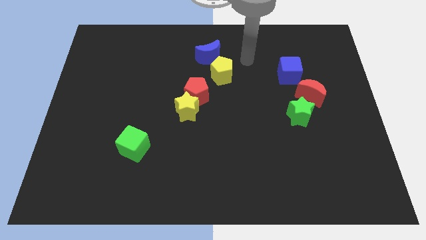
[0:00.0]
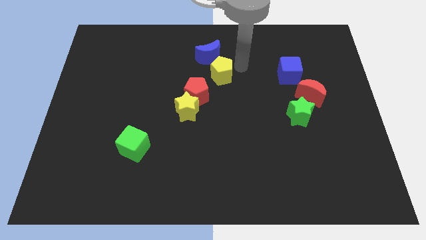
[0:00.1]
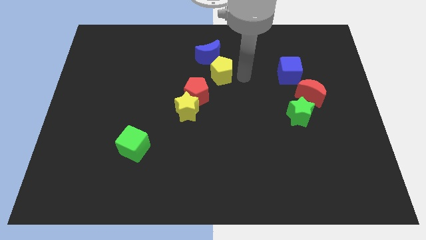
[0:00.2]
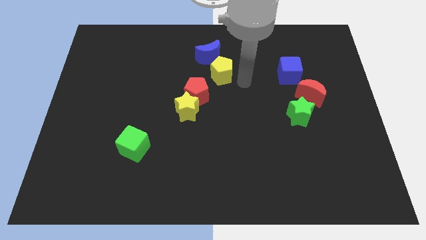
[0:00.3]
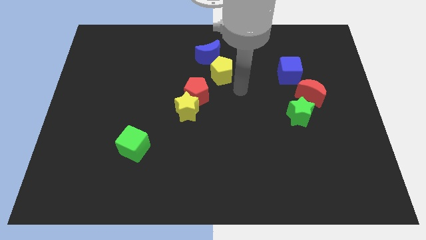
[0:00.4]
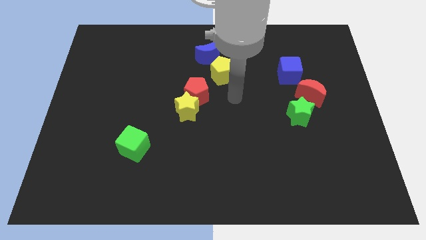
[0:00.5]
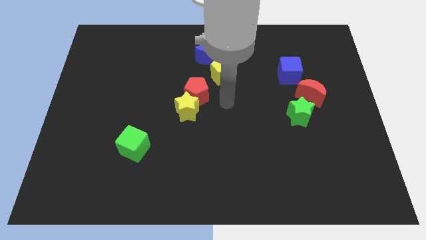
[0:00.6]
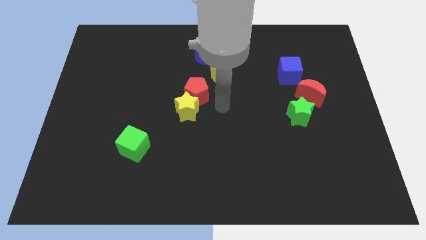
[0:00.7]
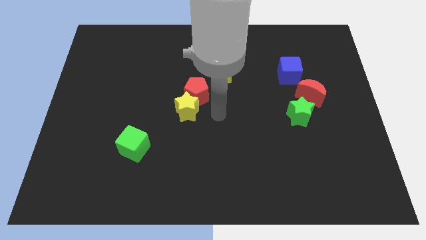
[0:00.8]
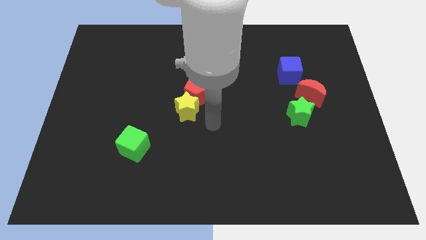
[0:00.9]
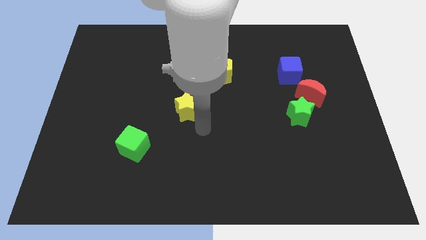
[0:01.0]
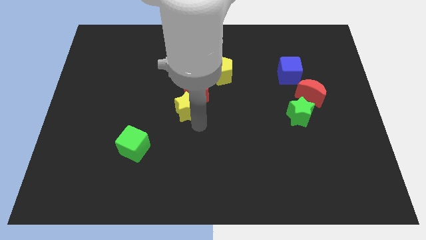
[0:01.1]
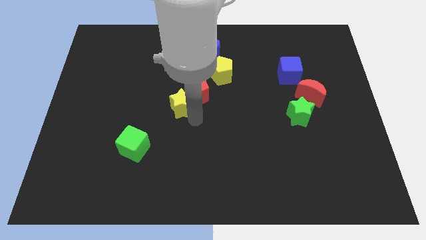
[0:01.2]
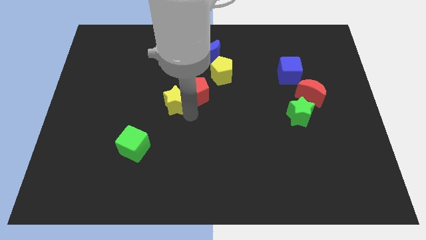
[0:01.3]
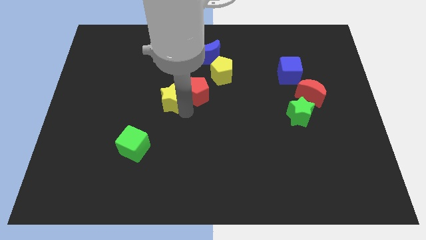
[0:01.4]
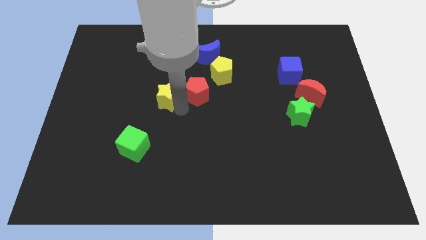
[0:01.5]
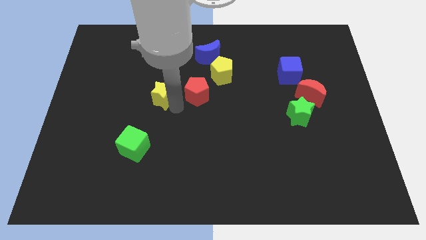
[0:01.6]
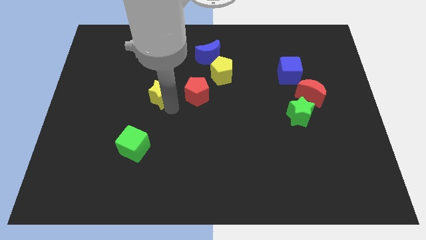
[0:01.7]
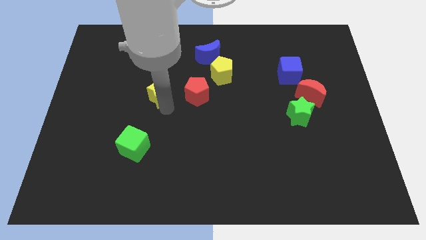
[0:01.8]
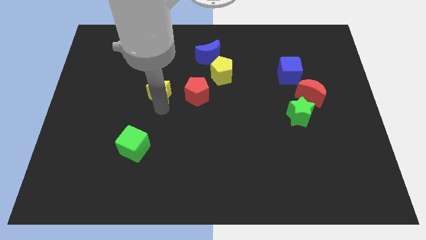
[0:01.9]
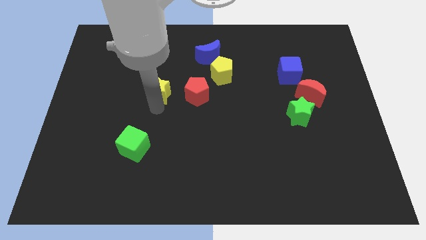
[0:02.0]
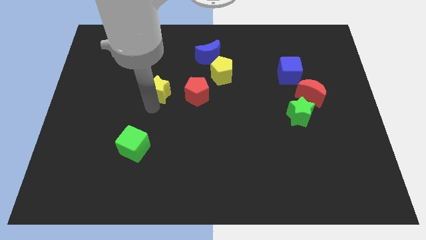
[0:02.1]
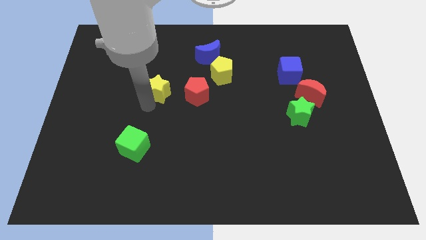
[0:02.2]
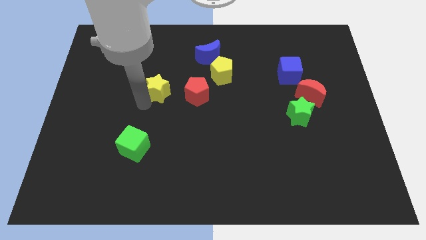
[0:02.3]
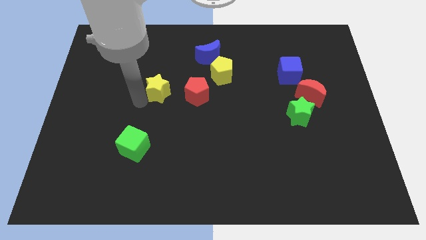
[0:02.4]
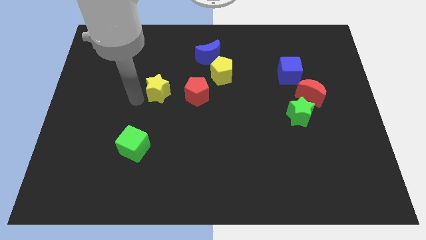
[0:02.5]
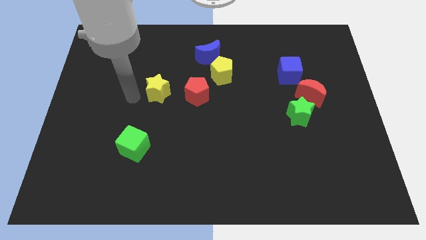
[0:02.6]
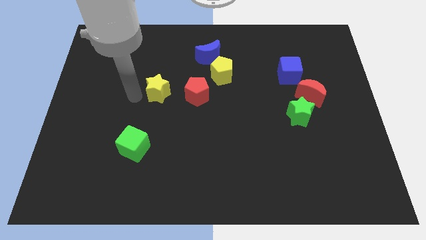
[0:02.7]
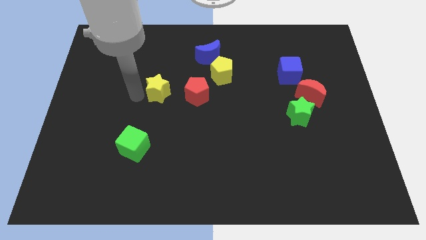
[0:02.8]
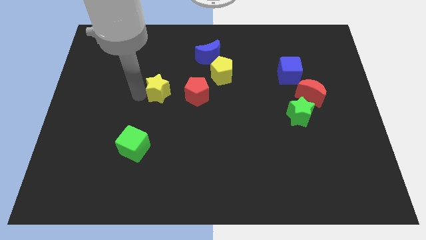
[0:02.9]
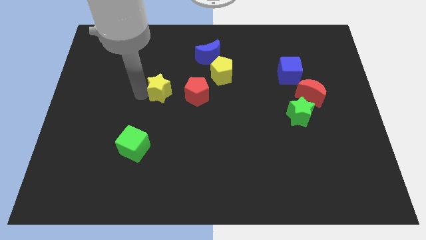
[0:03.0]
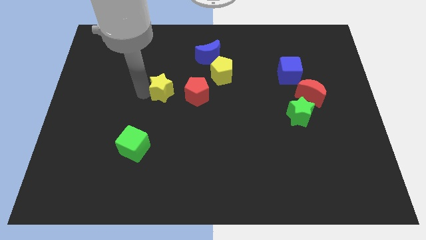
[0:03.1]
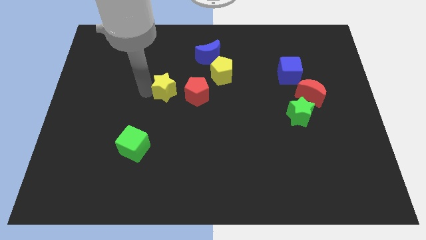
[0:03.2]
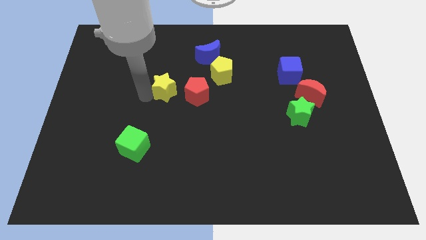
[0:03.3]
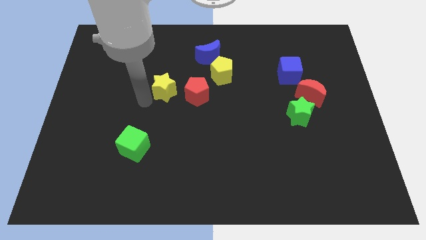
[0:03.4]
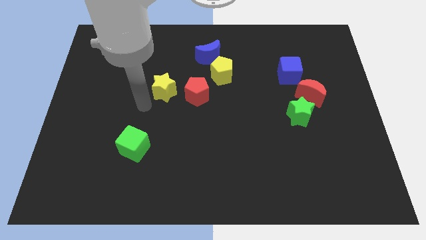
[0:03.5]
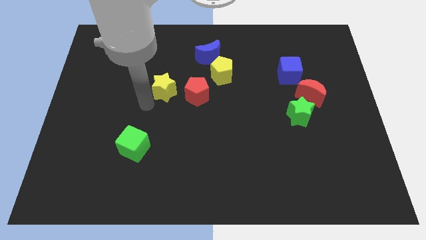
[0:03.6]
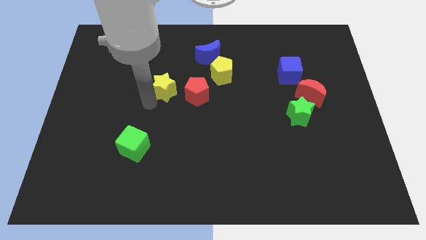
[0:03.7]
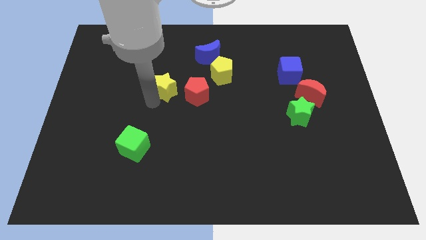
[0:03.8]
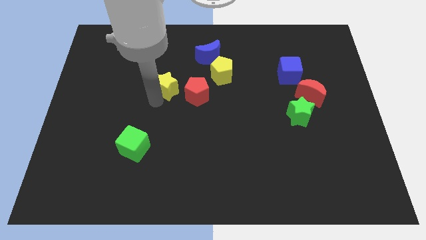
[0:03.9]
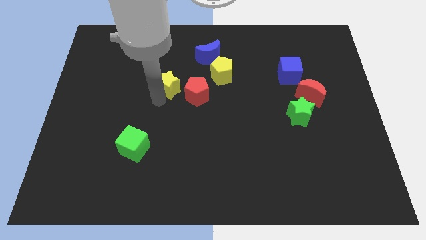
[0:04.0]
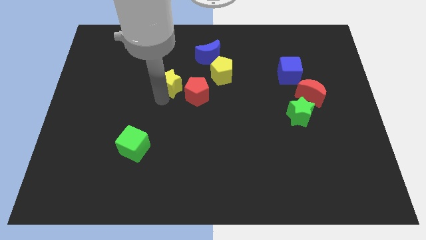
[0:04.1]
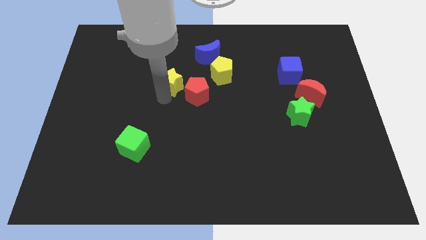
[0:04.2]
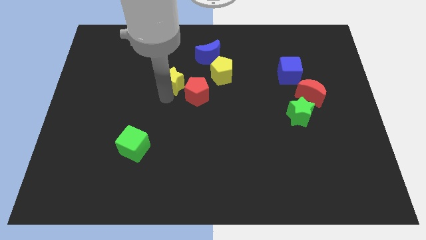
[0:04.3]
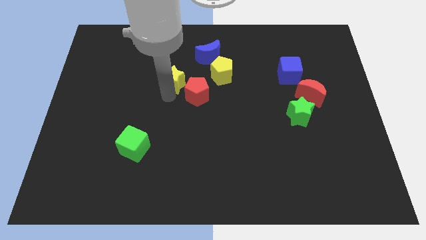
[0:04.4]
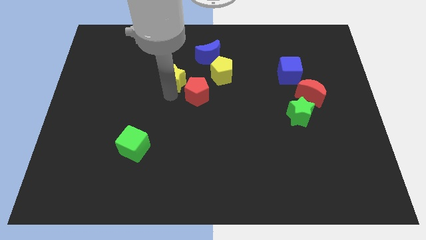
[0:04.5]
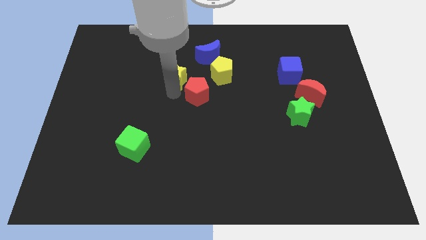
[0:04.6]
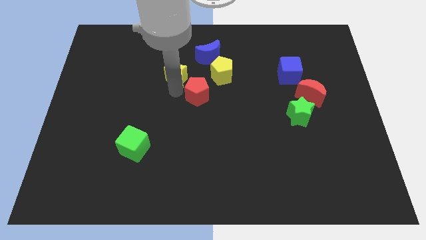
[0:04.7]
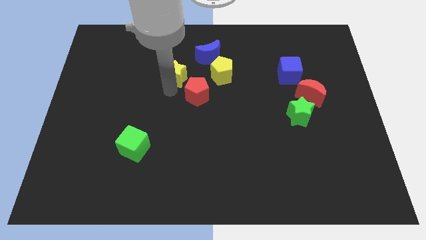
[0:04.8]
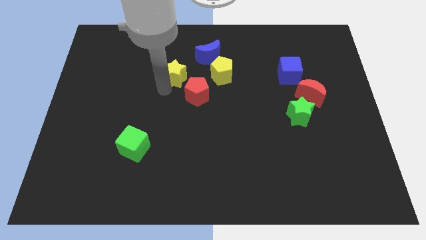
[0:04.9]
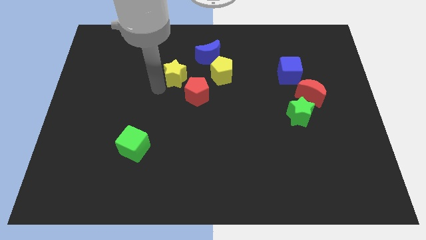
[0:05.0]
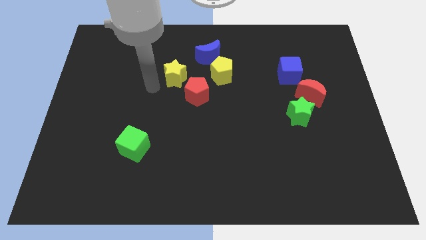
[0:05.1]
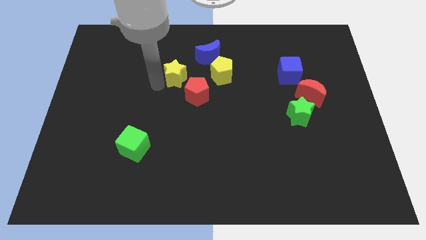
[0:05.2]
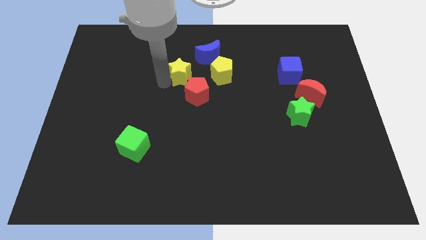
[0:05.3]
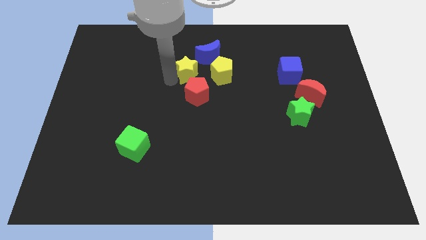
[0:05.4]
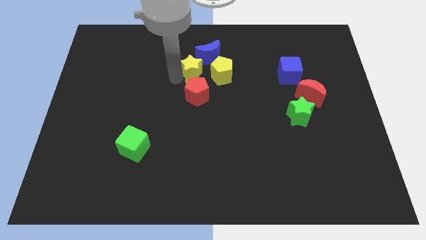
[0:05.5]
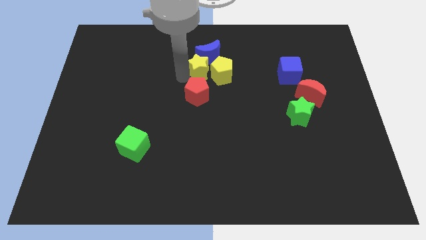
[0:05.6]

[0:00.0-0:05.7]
push the yellow star to the blue moon

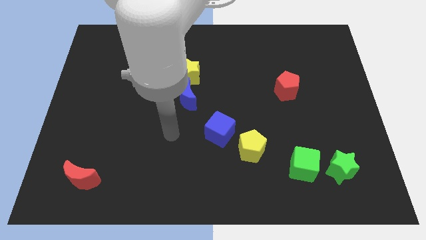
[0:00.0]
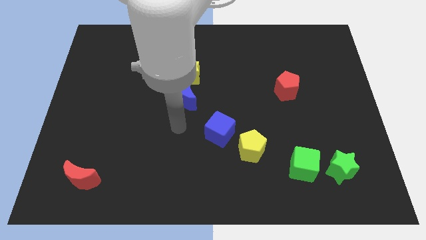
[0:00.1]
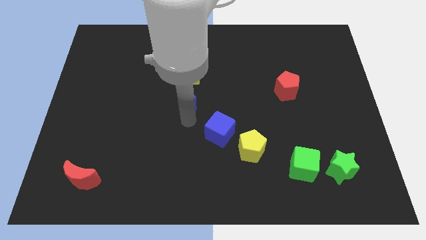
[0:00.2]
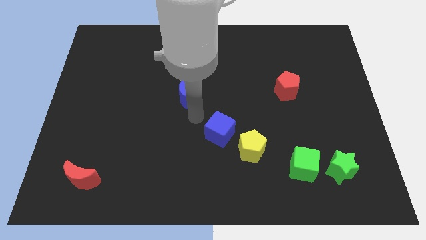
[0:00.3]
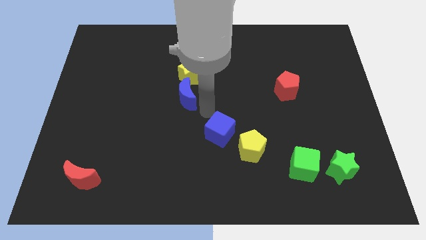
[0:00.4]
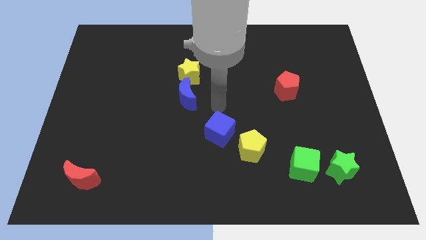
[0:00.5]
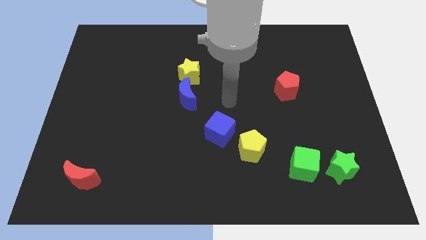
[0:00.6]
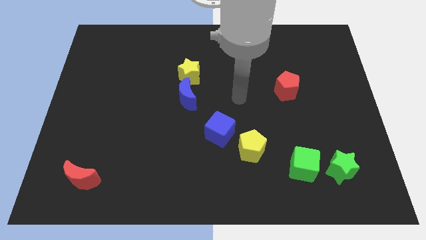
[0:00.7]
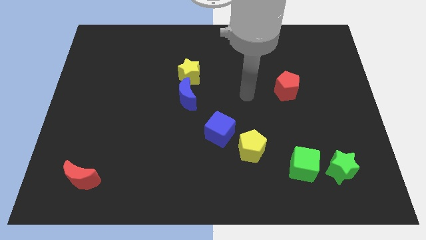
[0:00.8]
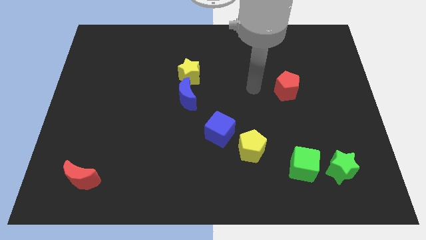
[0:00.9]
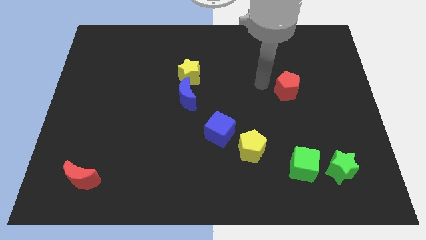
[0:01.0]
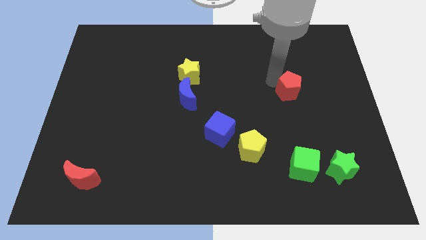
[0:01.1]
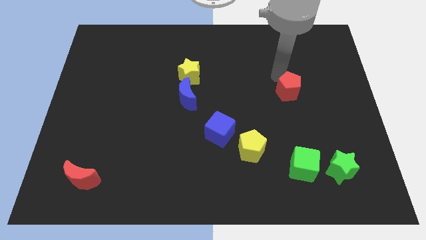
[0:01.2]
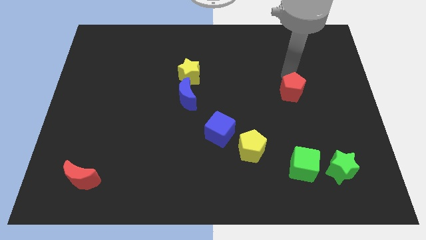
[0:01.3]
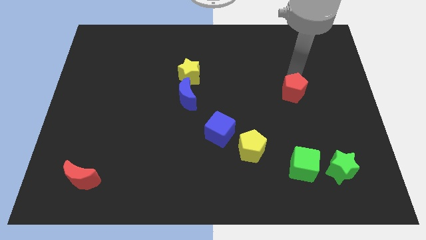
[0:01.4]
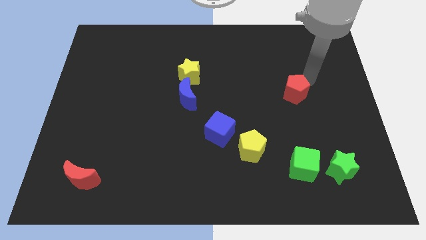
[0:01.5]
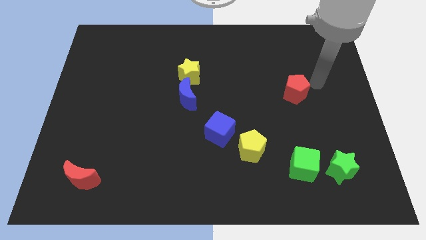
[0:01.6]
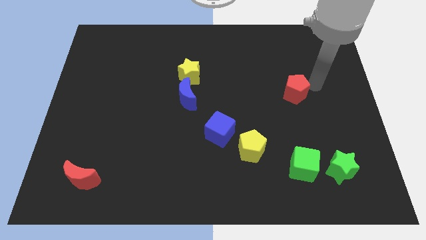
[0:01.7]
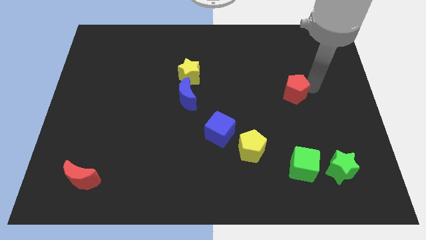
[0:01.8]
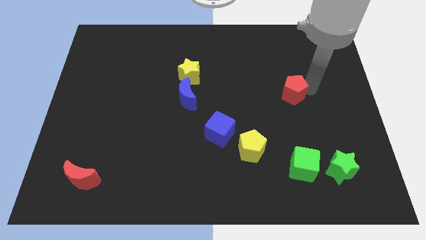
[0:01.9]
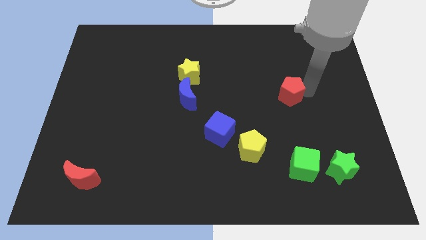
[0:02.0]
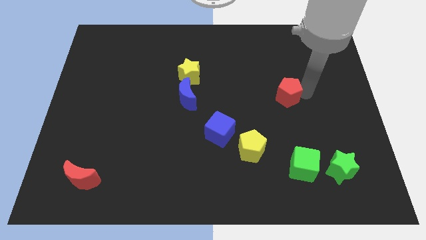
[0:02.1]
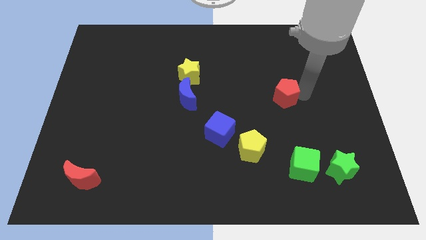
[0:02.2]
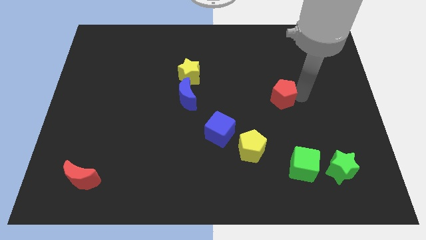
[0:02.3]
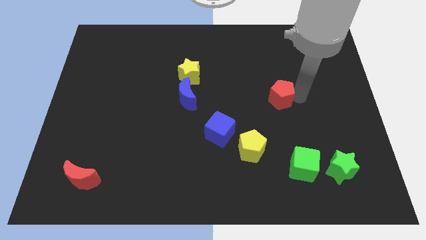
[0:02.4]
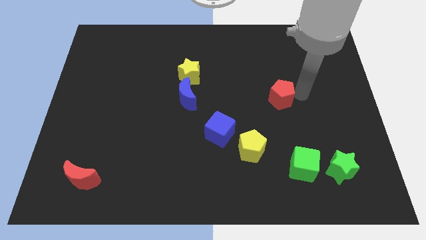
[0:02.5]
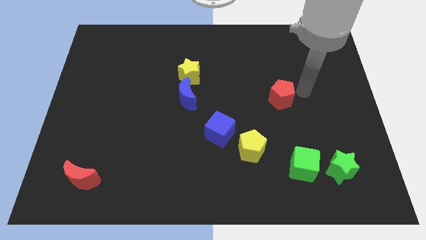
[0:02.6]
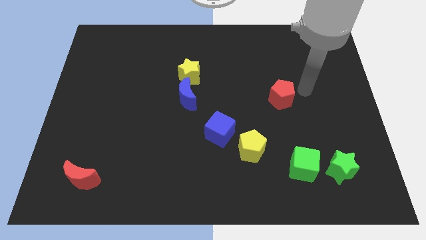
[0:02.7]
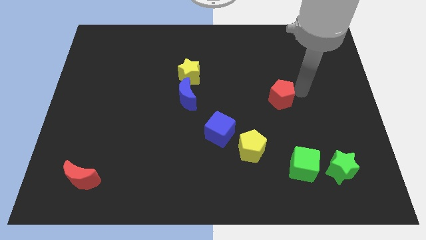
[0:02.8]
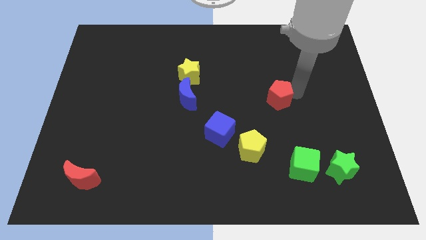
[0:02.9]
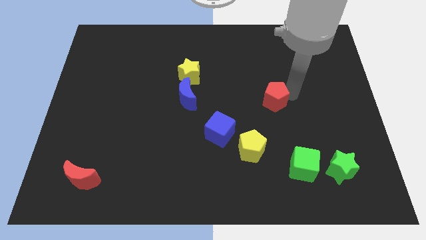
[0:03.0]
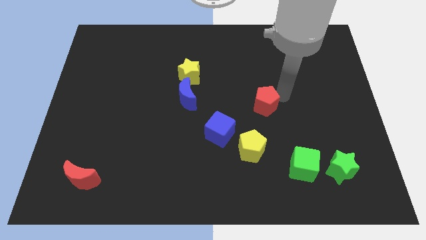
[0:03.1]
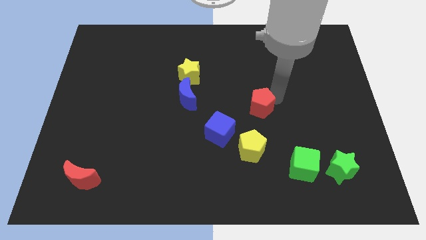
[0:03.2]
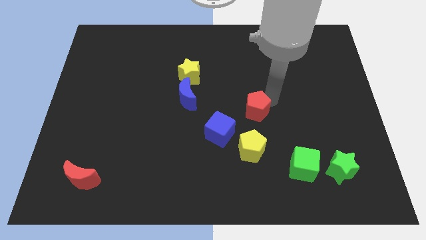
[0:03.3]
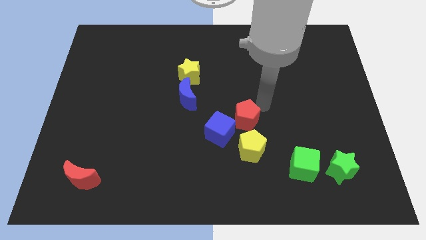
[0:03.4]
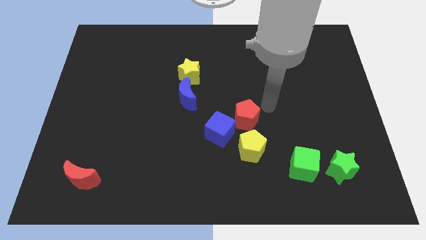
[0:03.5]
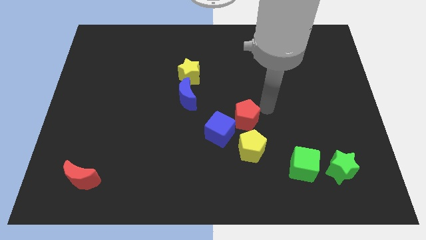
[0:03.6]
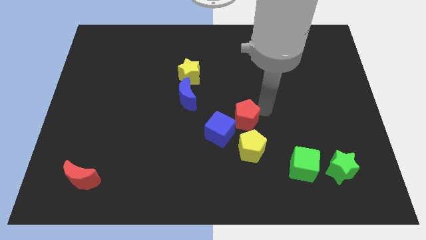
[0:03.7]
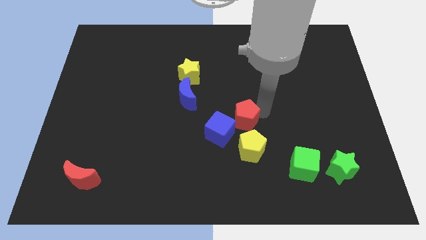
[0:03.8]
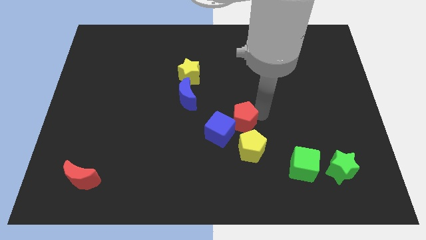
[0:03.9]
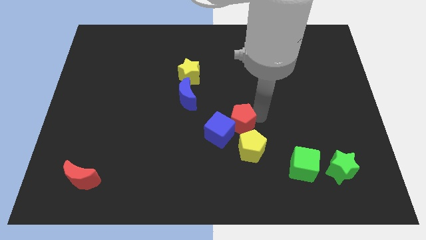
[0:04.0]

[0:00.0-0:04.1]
push the red pentagon to the blue cube
